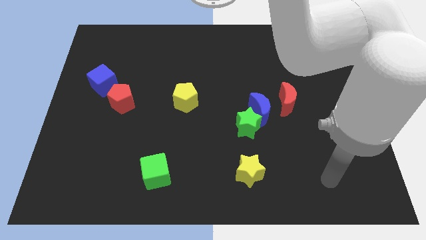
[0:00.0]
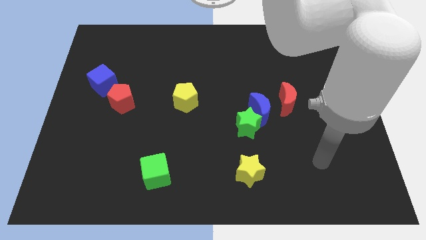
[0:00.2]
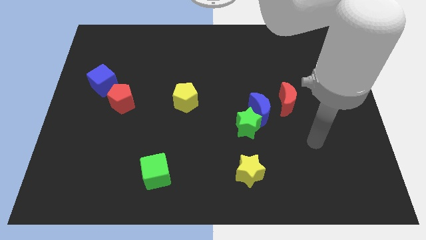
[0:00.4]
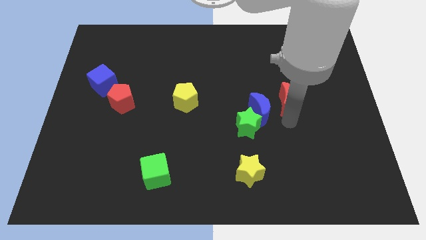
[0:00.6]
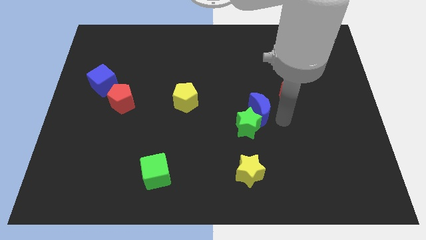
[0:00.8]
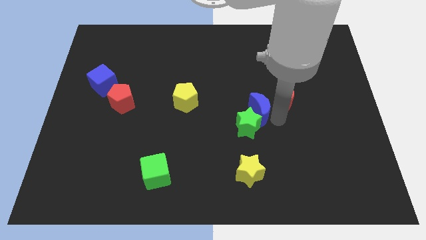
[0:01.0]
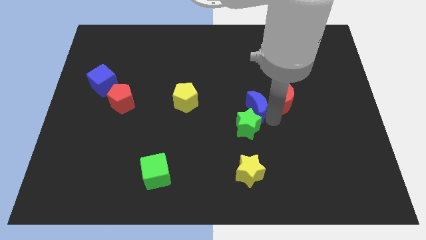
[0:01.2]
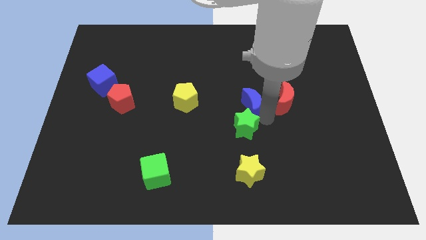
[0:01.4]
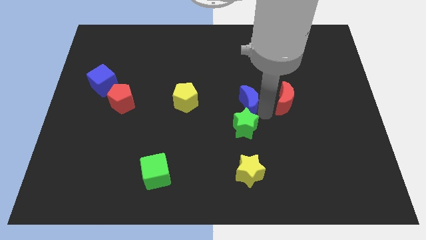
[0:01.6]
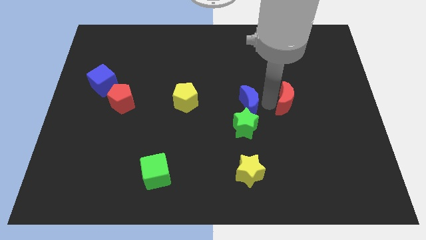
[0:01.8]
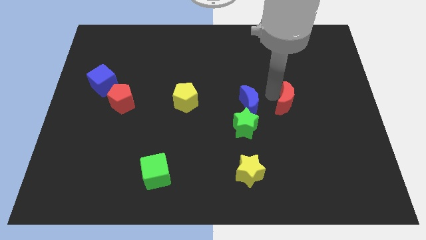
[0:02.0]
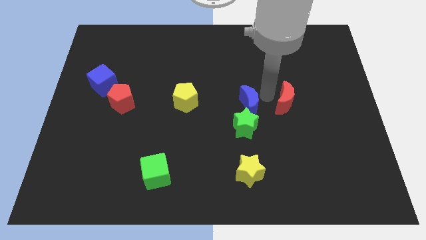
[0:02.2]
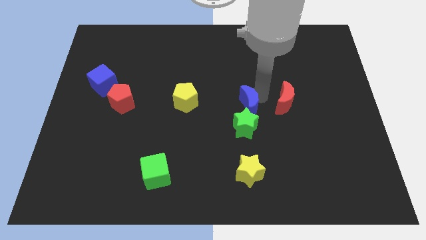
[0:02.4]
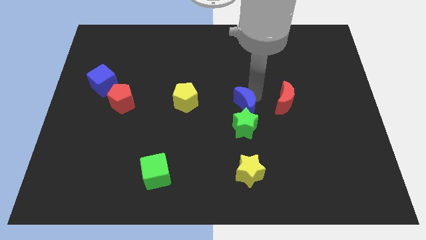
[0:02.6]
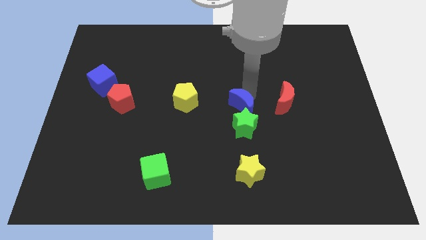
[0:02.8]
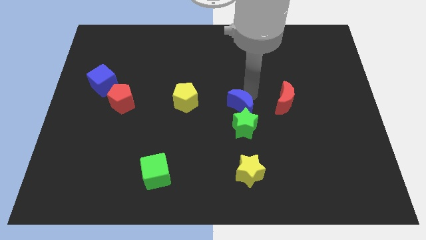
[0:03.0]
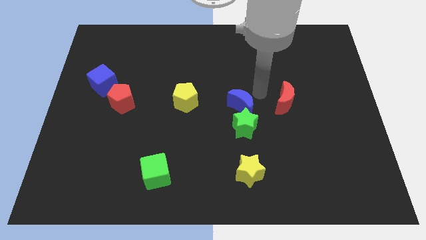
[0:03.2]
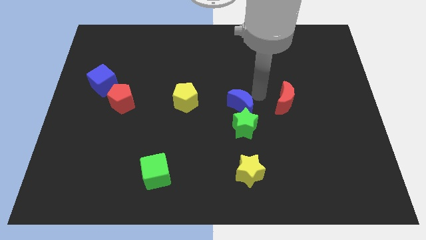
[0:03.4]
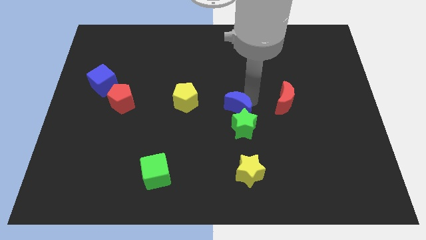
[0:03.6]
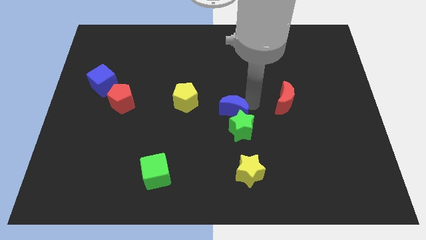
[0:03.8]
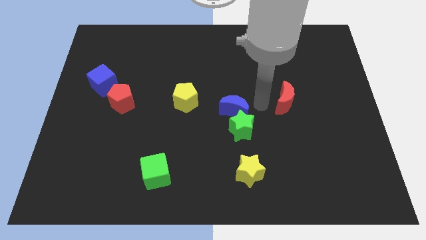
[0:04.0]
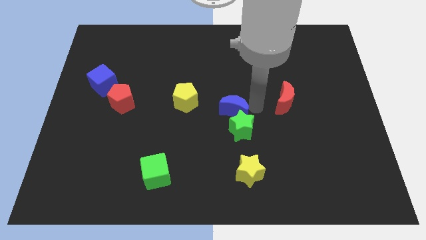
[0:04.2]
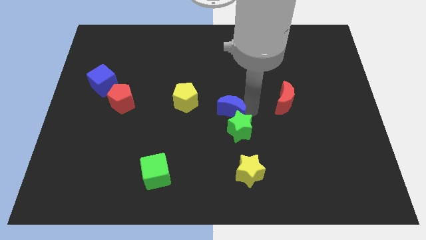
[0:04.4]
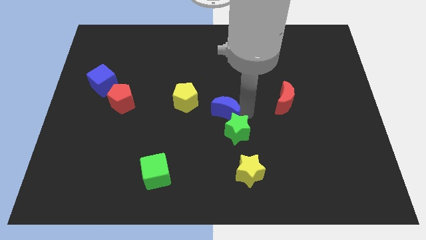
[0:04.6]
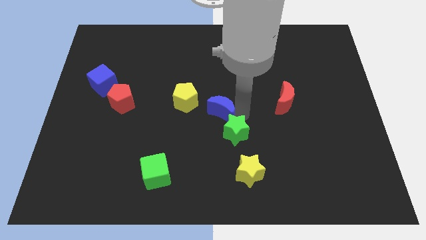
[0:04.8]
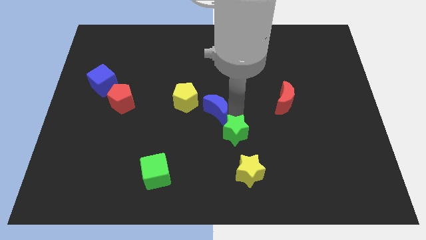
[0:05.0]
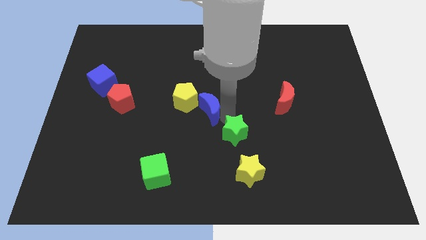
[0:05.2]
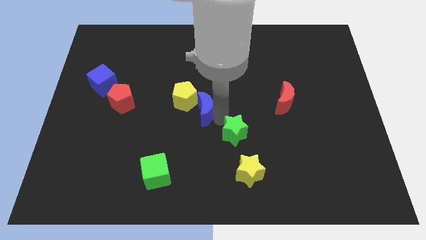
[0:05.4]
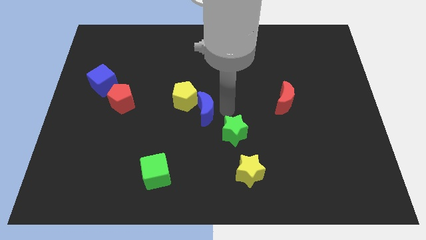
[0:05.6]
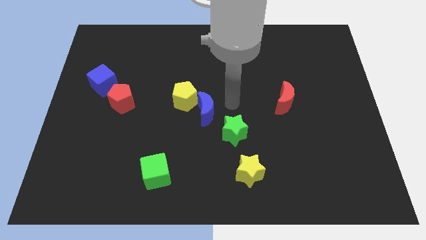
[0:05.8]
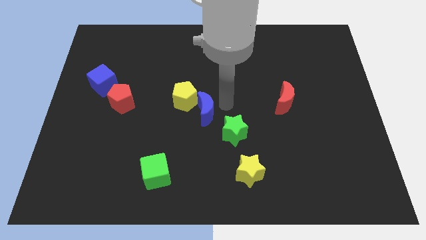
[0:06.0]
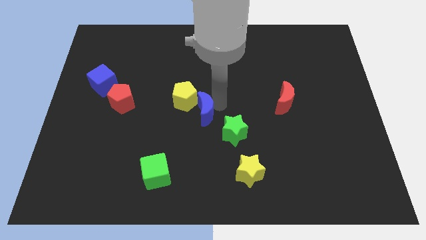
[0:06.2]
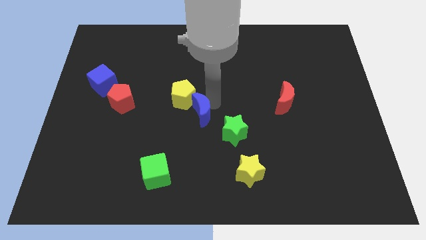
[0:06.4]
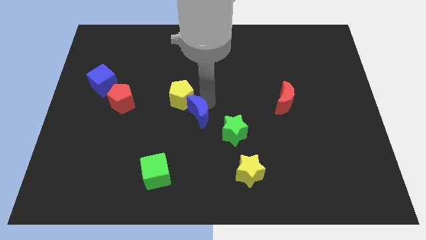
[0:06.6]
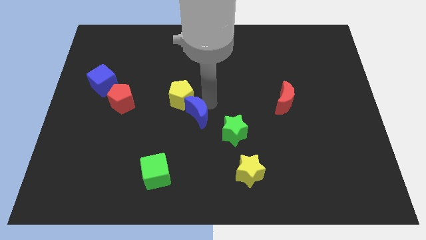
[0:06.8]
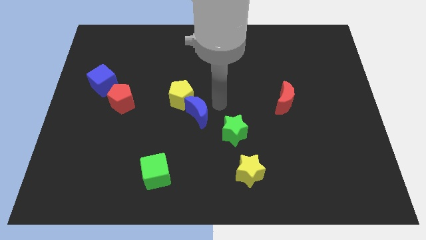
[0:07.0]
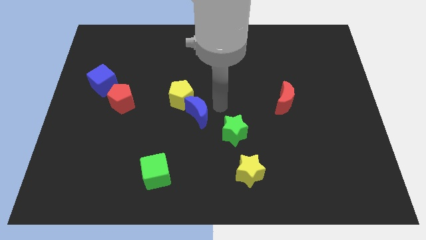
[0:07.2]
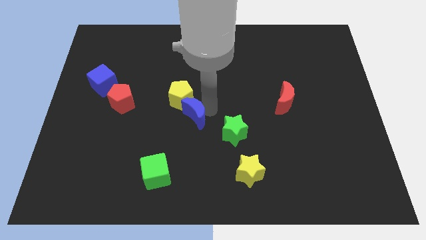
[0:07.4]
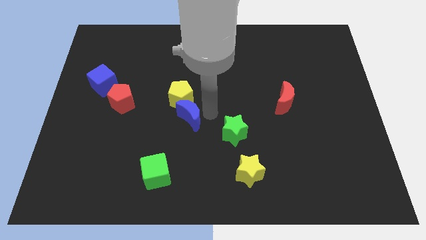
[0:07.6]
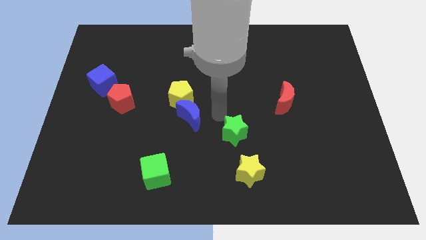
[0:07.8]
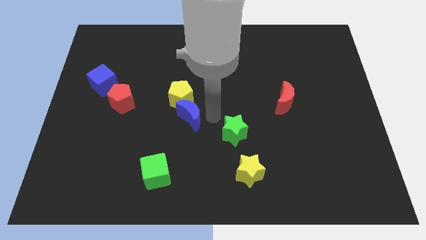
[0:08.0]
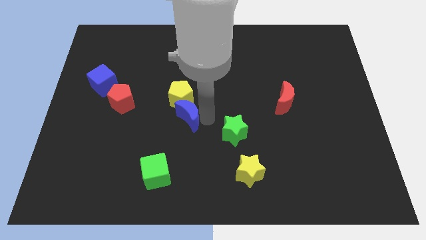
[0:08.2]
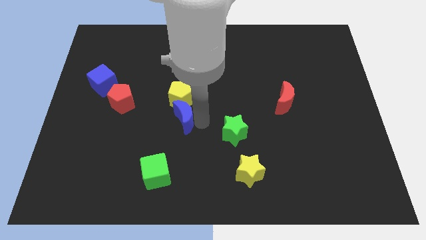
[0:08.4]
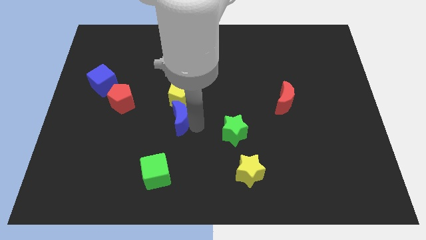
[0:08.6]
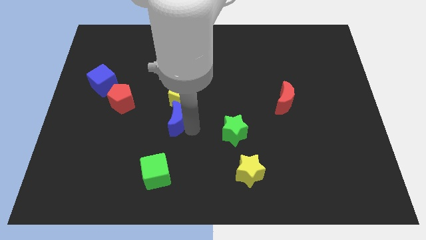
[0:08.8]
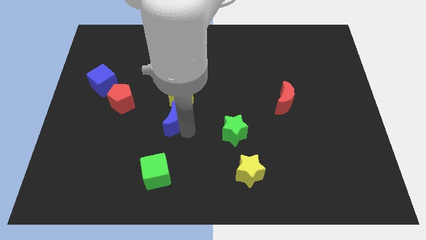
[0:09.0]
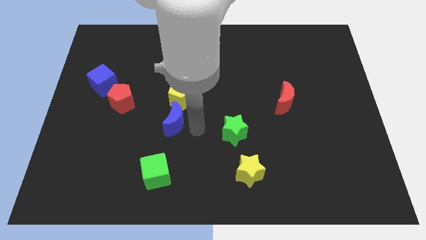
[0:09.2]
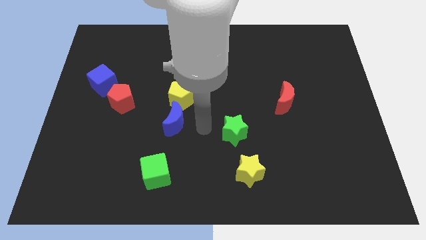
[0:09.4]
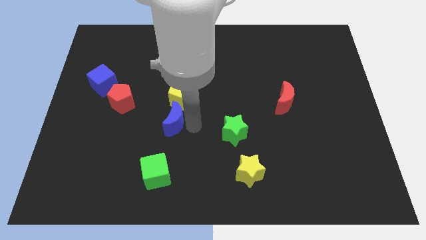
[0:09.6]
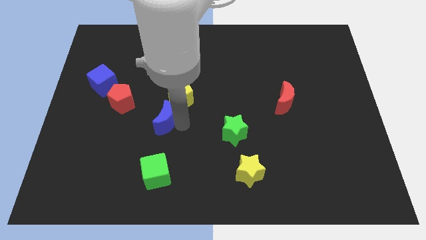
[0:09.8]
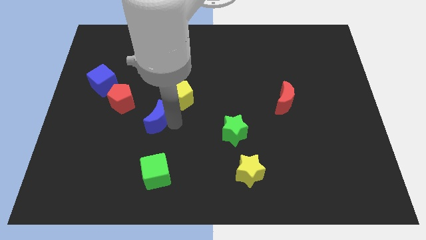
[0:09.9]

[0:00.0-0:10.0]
push the blue moon diagonally down and to the right of the red pentagon

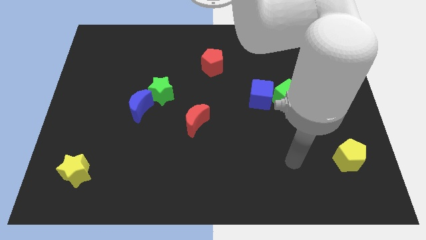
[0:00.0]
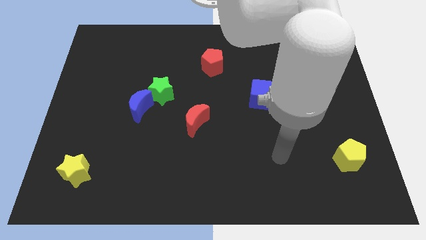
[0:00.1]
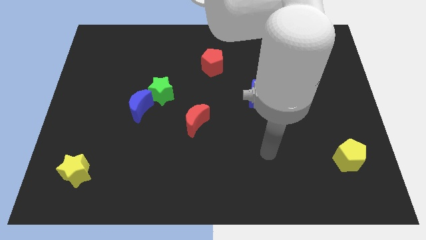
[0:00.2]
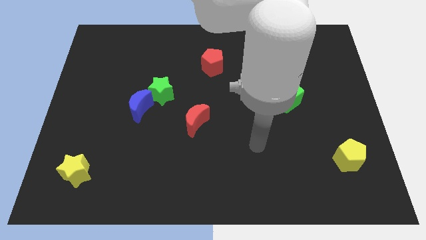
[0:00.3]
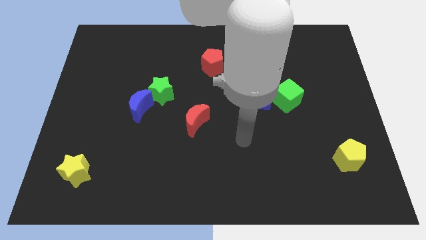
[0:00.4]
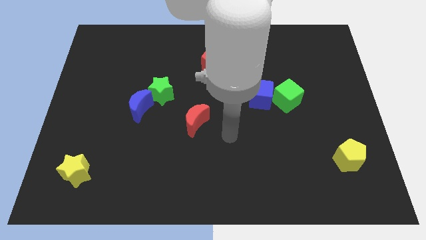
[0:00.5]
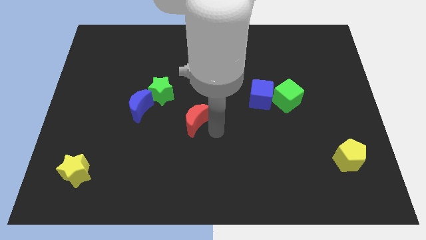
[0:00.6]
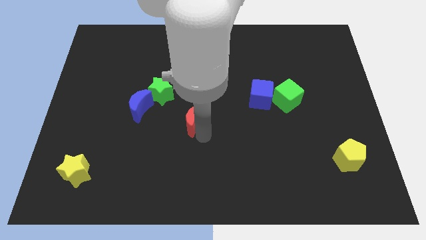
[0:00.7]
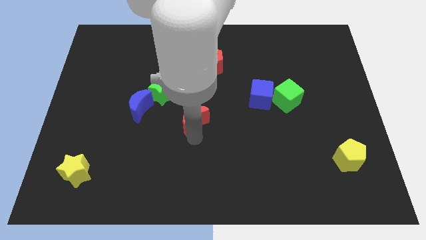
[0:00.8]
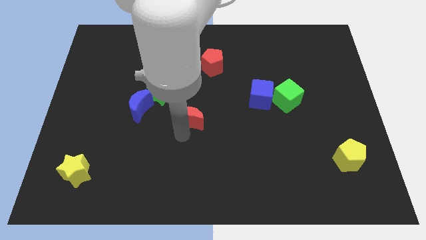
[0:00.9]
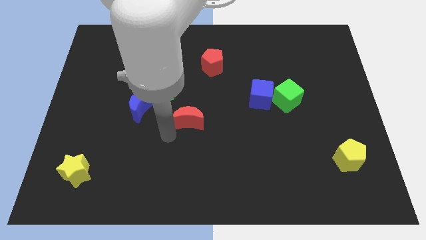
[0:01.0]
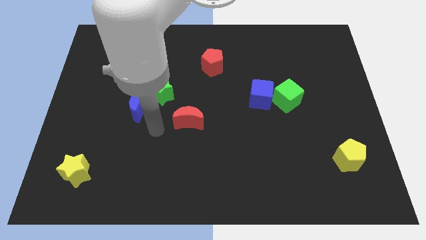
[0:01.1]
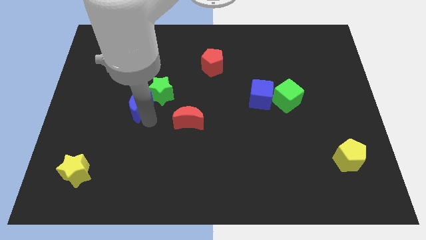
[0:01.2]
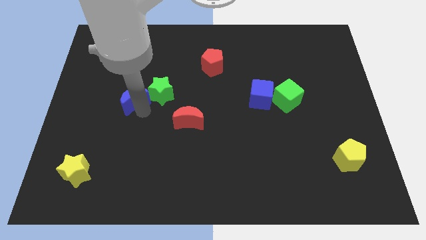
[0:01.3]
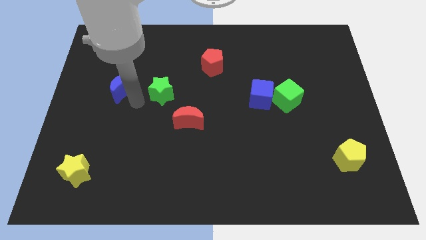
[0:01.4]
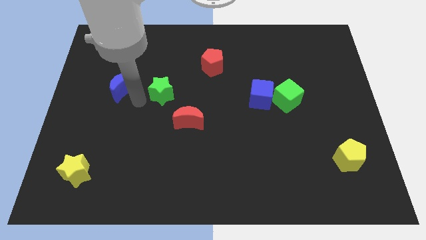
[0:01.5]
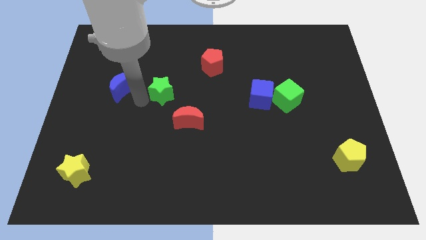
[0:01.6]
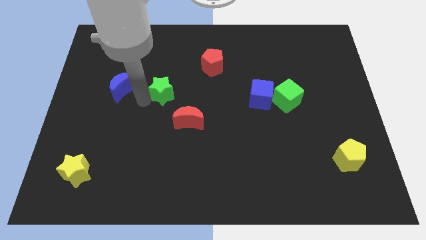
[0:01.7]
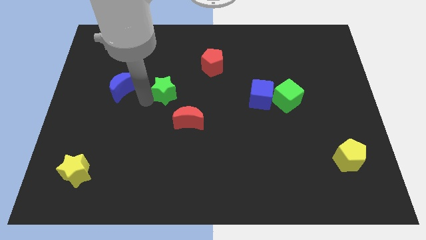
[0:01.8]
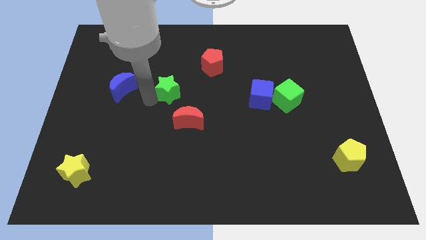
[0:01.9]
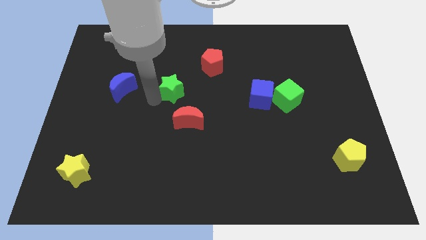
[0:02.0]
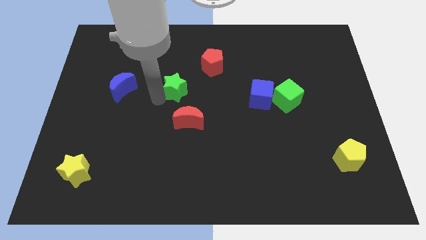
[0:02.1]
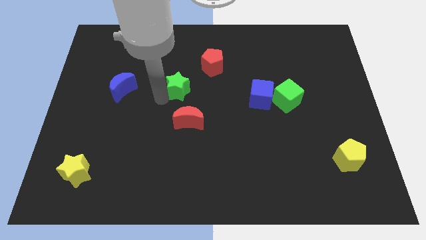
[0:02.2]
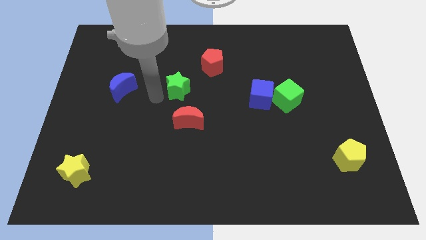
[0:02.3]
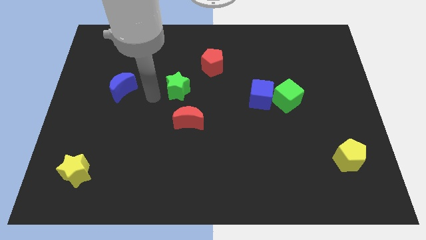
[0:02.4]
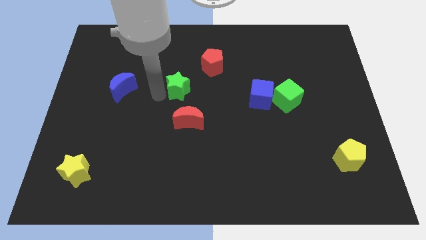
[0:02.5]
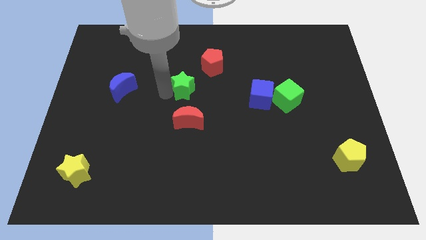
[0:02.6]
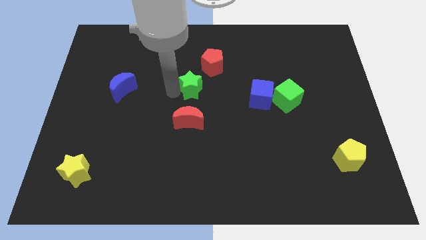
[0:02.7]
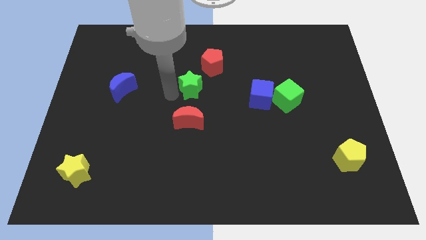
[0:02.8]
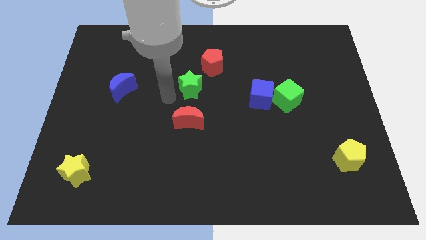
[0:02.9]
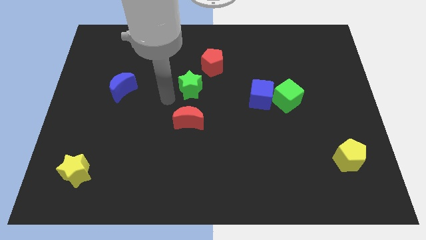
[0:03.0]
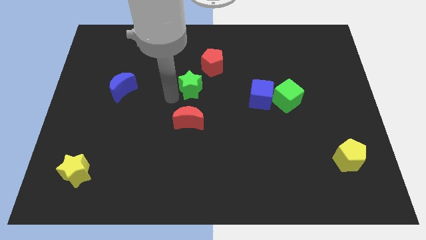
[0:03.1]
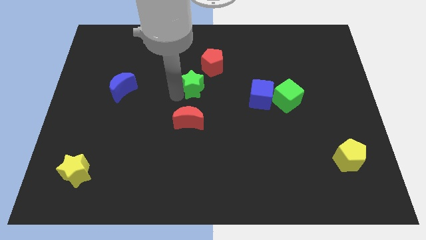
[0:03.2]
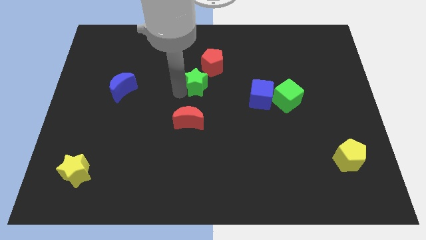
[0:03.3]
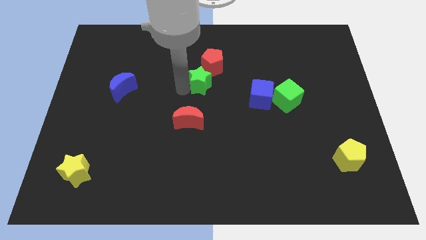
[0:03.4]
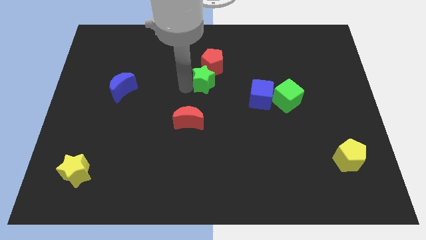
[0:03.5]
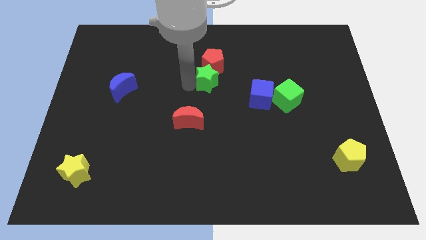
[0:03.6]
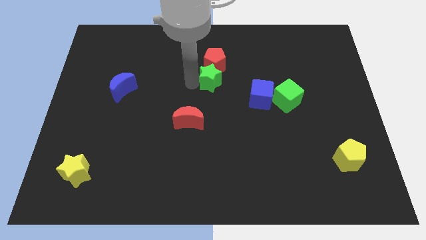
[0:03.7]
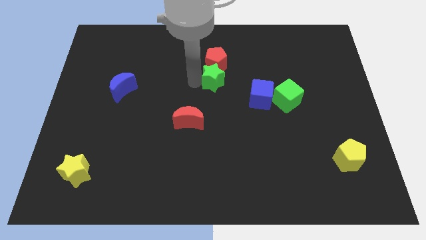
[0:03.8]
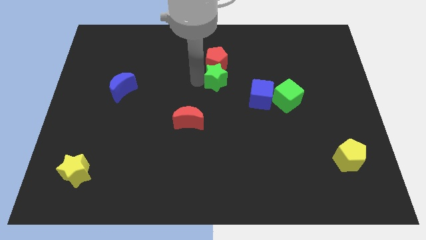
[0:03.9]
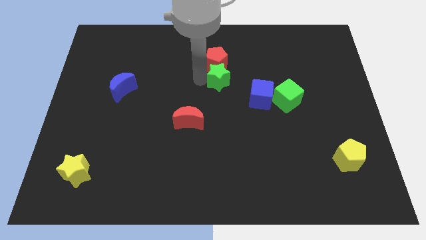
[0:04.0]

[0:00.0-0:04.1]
slide the green star to the top left of the blue cube
